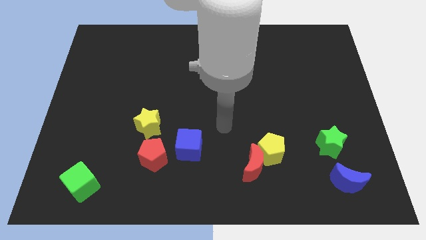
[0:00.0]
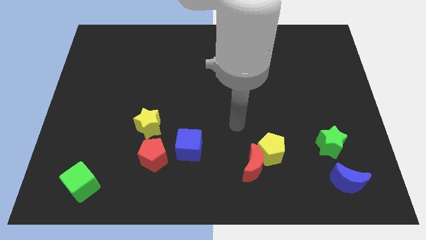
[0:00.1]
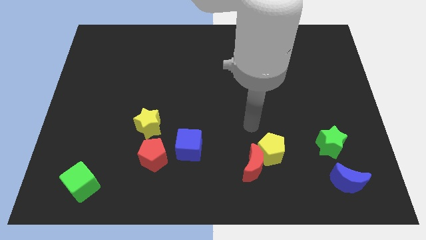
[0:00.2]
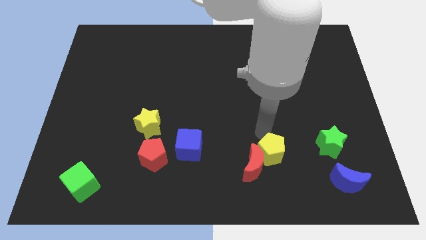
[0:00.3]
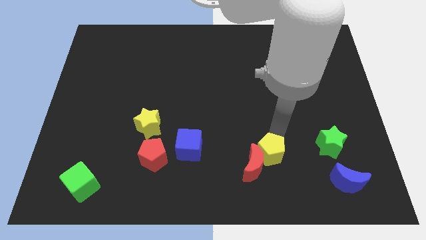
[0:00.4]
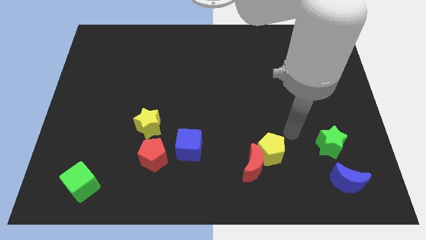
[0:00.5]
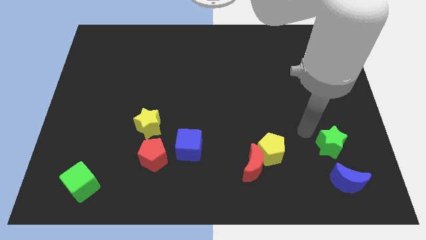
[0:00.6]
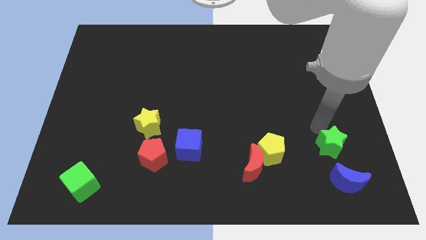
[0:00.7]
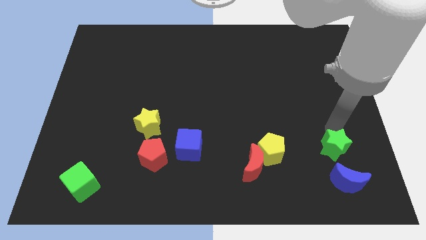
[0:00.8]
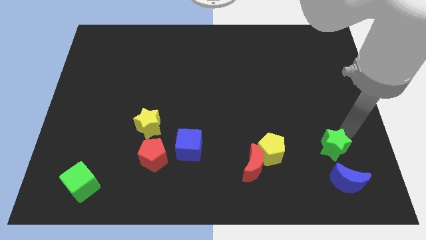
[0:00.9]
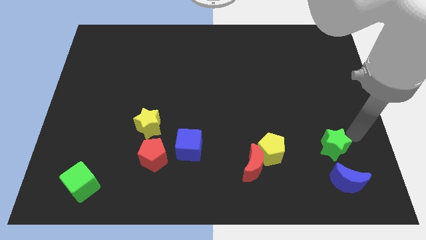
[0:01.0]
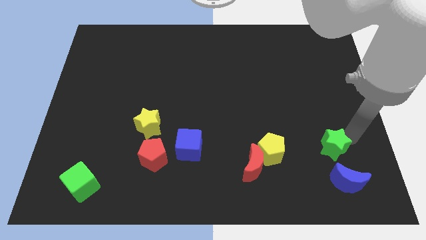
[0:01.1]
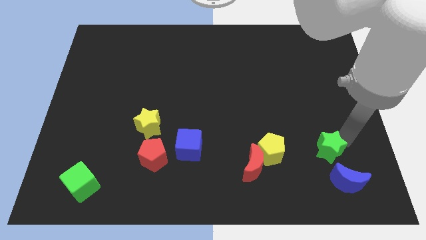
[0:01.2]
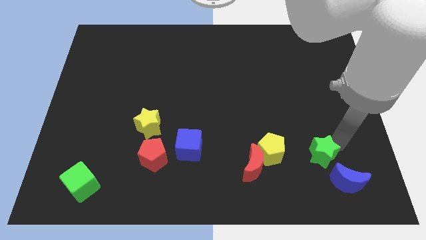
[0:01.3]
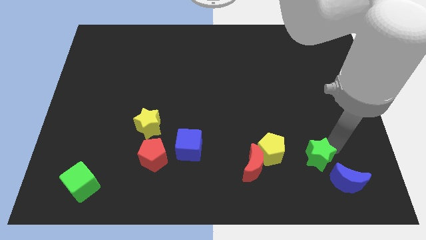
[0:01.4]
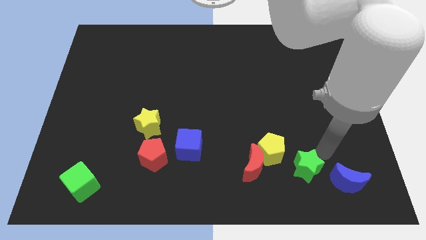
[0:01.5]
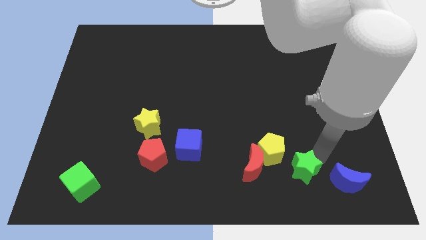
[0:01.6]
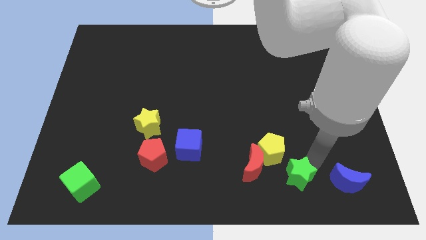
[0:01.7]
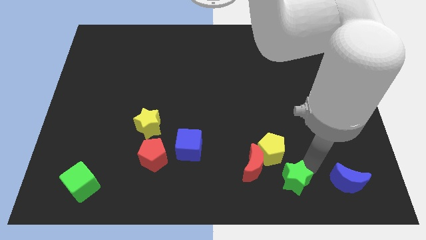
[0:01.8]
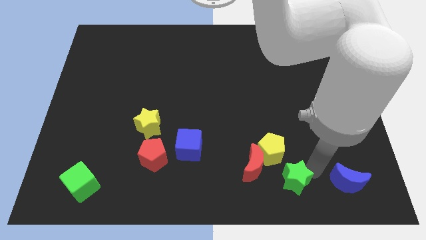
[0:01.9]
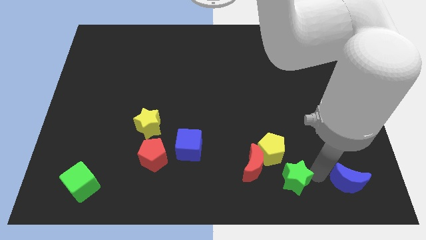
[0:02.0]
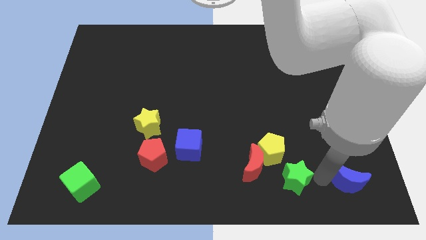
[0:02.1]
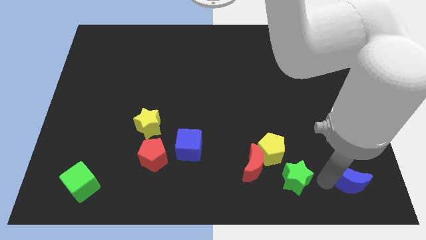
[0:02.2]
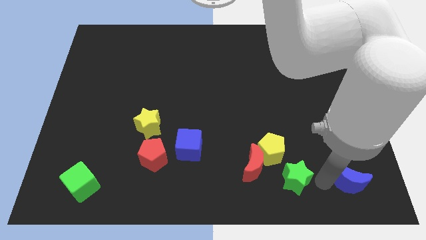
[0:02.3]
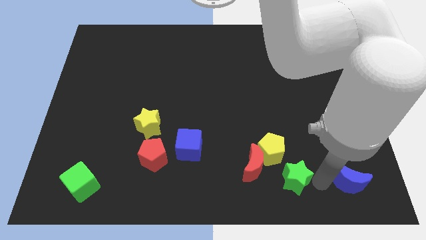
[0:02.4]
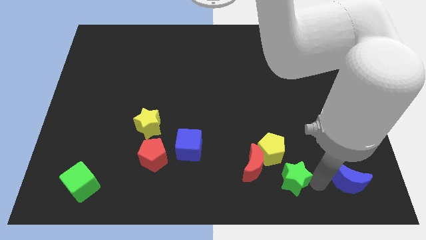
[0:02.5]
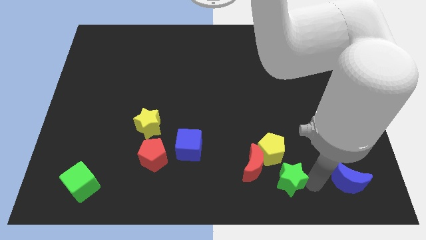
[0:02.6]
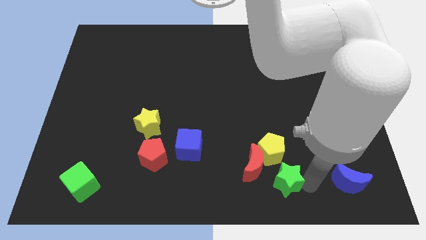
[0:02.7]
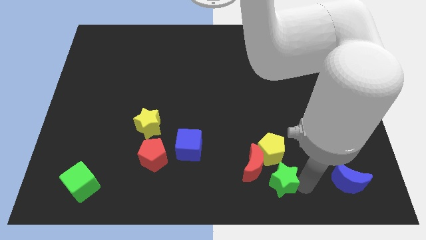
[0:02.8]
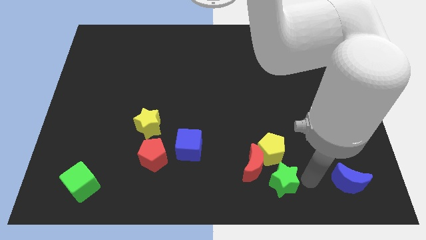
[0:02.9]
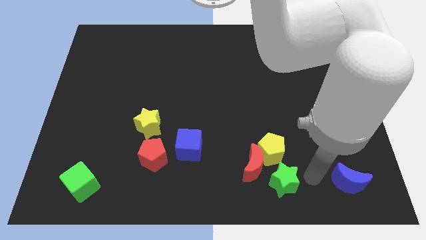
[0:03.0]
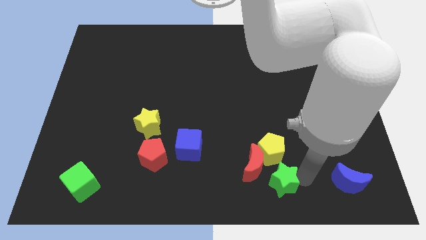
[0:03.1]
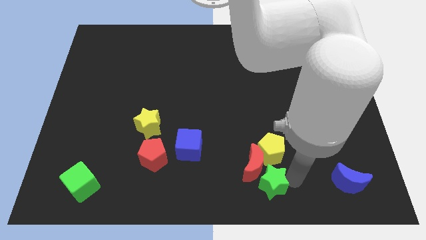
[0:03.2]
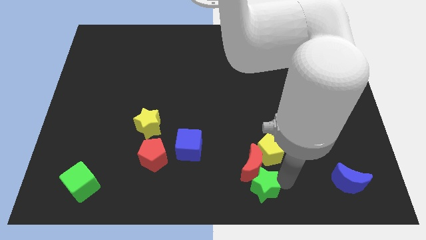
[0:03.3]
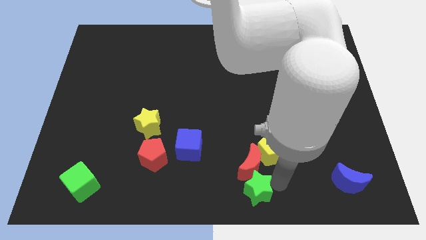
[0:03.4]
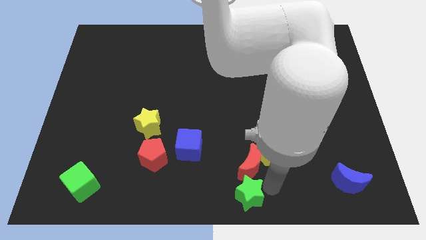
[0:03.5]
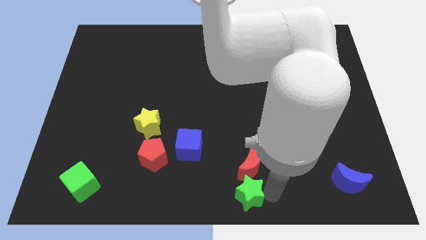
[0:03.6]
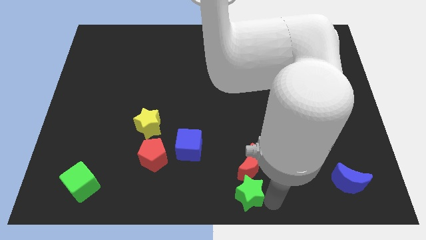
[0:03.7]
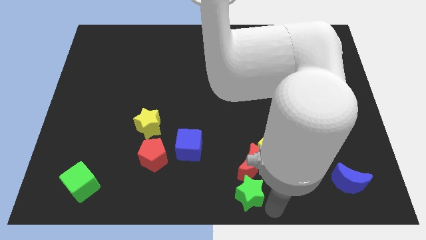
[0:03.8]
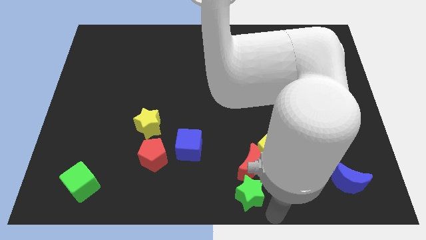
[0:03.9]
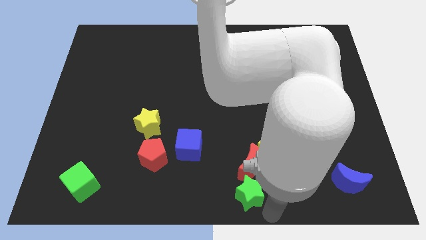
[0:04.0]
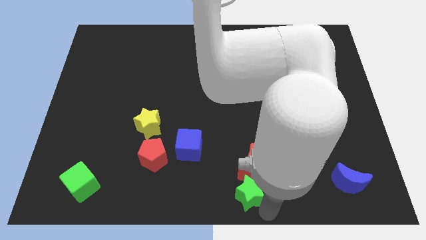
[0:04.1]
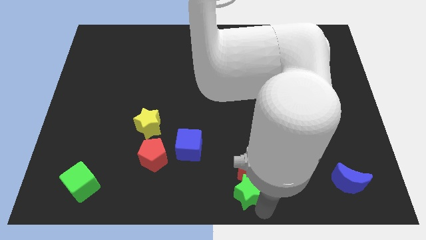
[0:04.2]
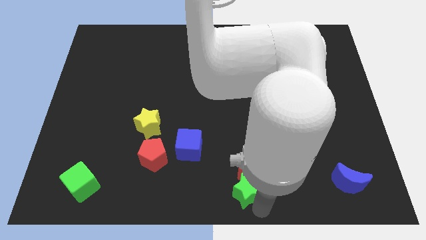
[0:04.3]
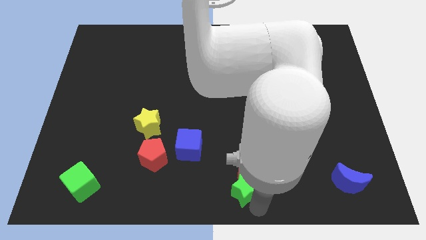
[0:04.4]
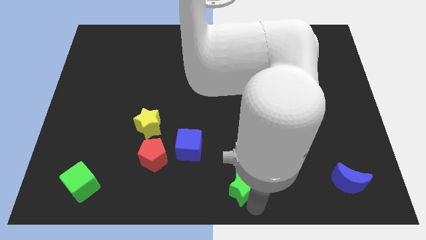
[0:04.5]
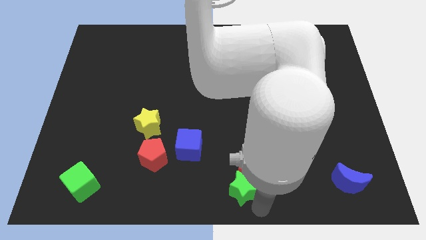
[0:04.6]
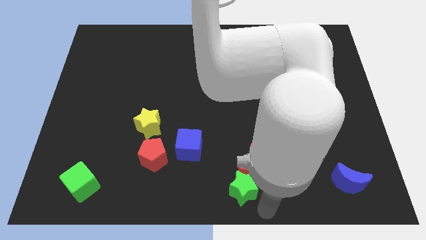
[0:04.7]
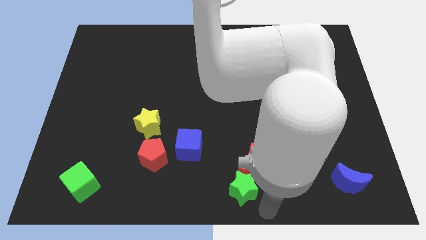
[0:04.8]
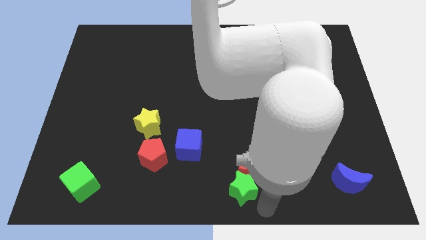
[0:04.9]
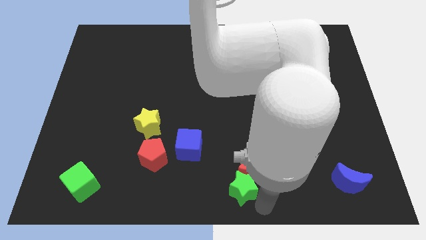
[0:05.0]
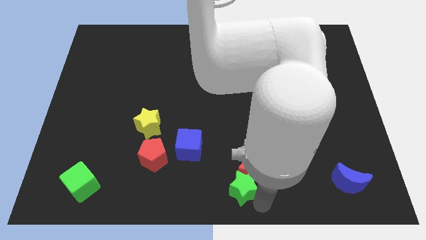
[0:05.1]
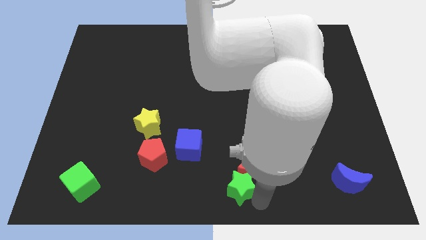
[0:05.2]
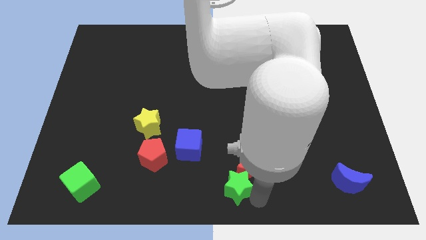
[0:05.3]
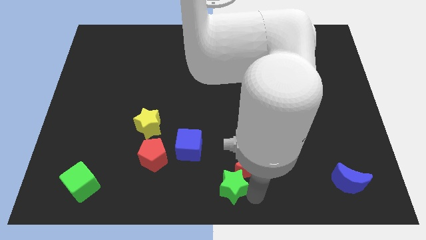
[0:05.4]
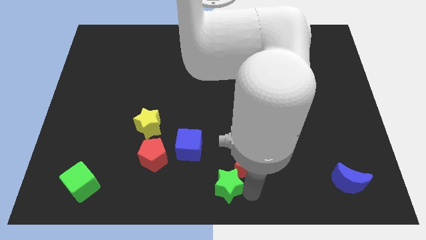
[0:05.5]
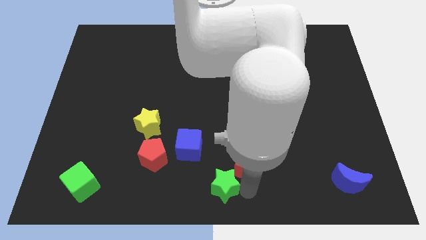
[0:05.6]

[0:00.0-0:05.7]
move the green star to the left of the red moon

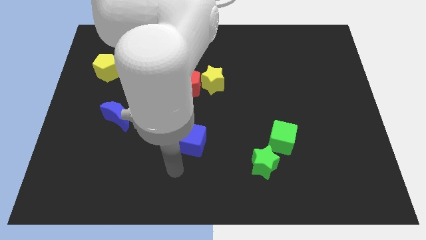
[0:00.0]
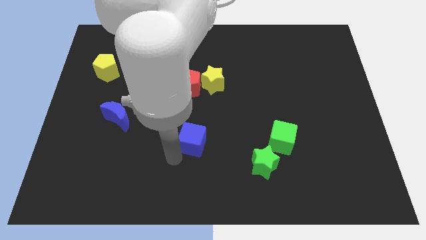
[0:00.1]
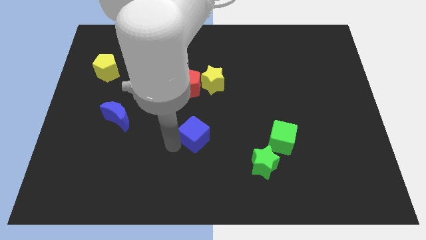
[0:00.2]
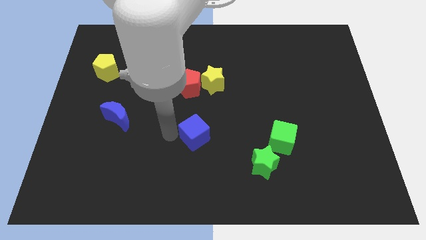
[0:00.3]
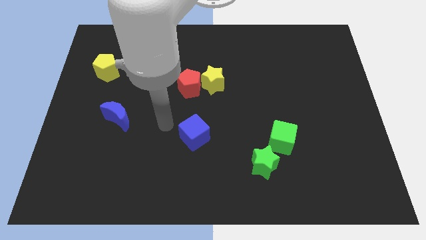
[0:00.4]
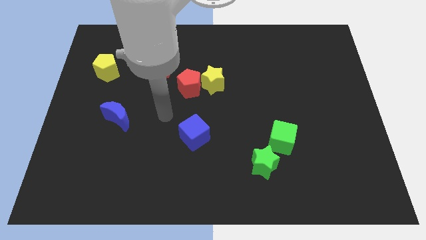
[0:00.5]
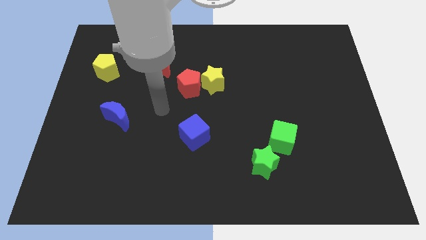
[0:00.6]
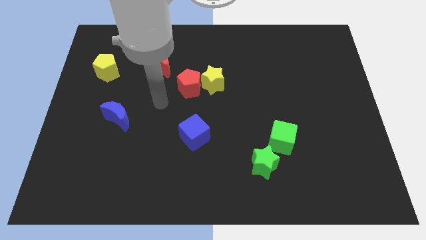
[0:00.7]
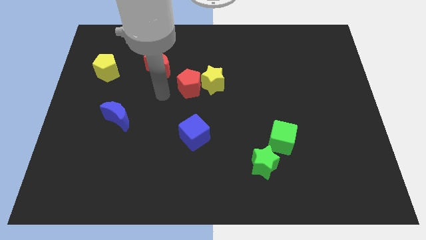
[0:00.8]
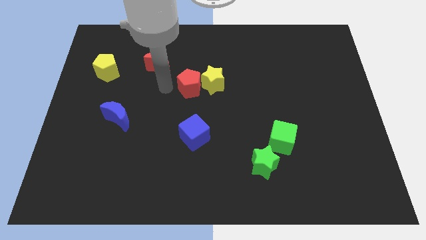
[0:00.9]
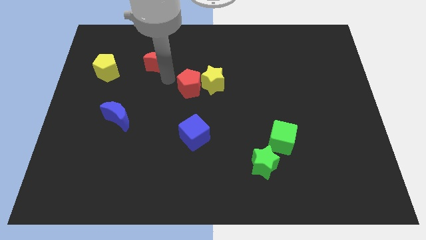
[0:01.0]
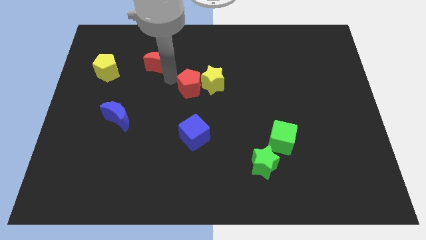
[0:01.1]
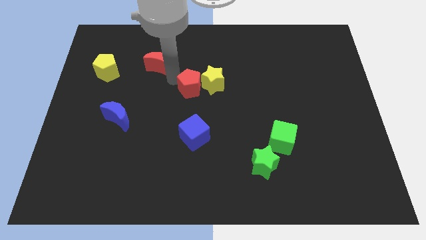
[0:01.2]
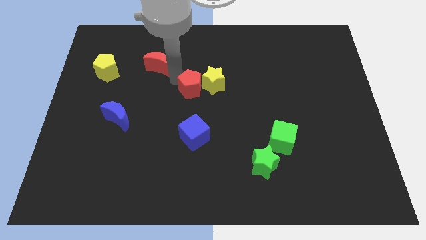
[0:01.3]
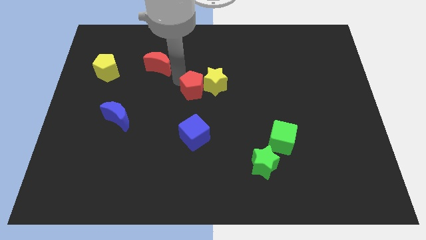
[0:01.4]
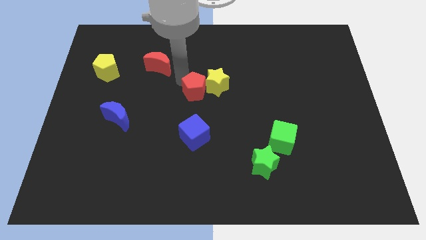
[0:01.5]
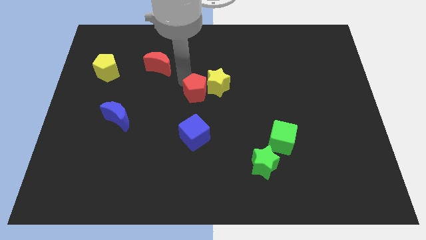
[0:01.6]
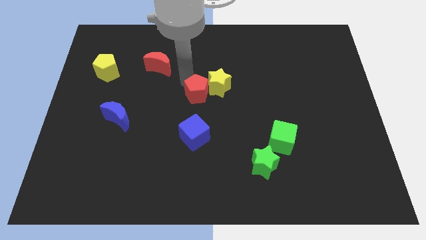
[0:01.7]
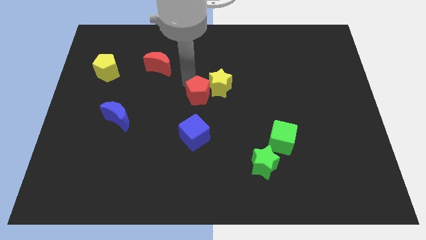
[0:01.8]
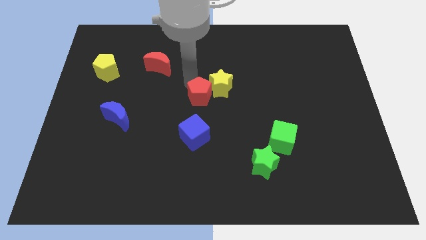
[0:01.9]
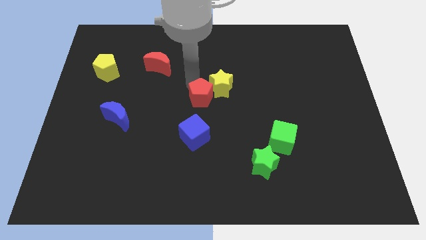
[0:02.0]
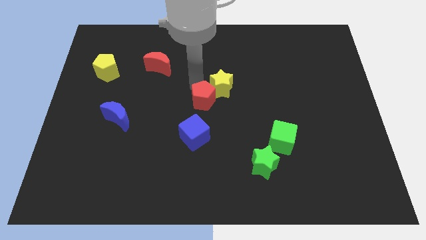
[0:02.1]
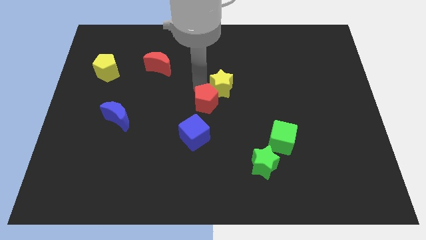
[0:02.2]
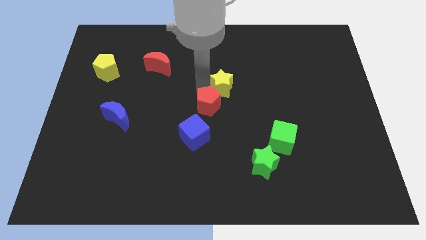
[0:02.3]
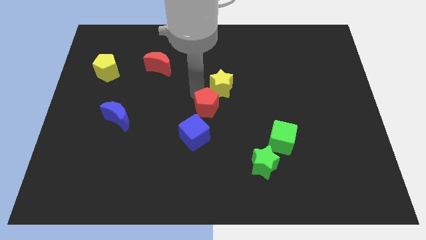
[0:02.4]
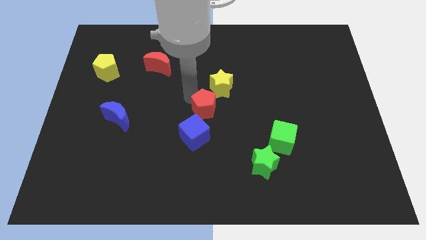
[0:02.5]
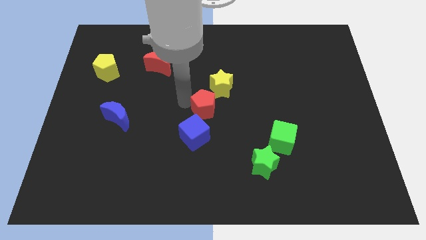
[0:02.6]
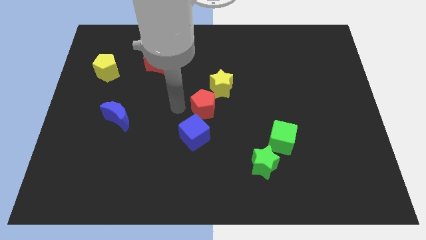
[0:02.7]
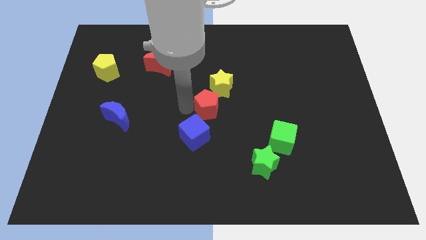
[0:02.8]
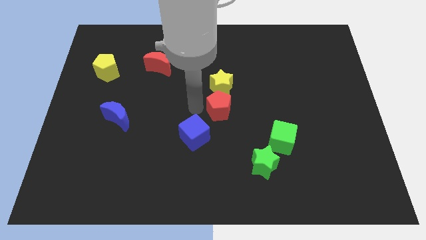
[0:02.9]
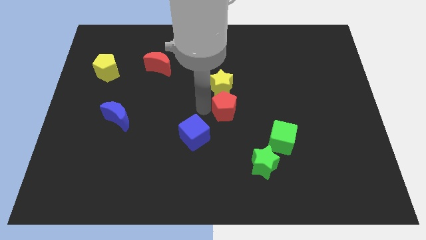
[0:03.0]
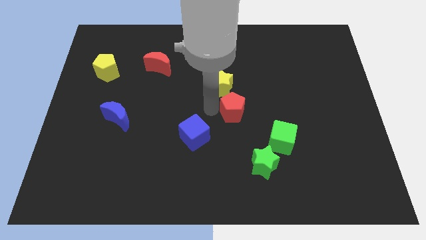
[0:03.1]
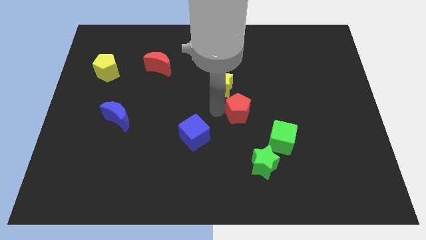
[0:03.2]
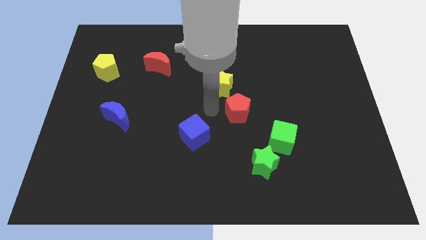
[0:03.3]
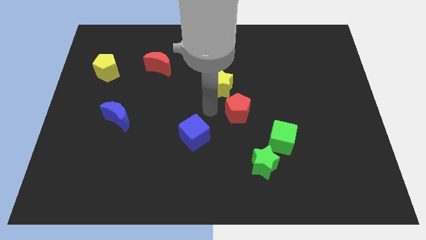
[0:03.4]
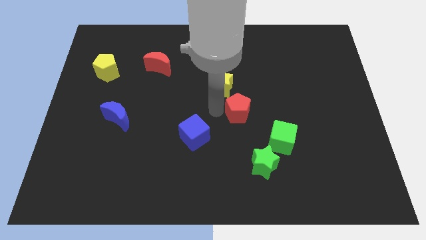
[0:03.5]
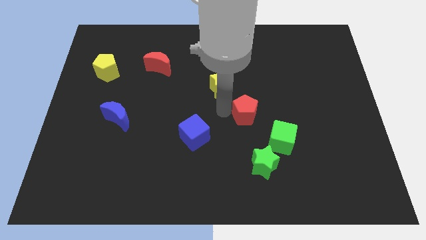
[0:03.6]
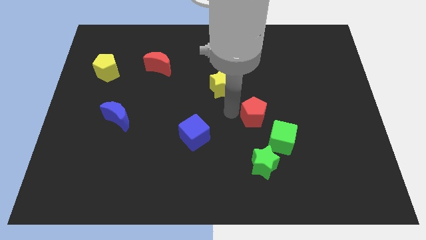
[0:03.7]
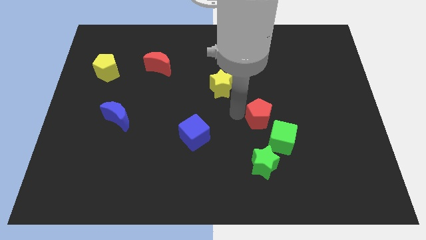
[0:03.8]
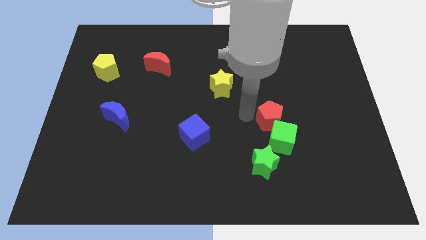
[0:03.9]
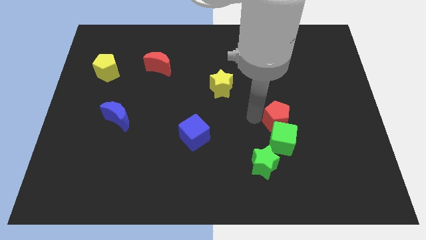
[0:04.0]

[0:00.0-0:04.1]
push the red pentagon to the top right of the green cube
